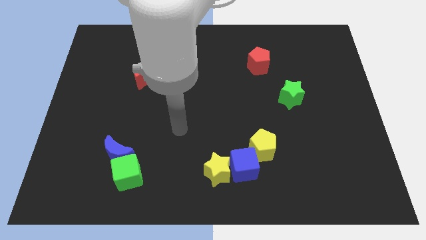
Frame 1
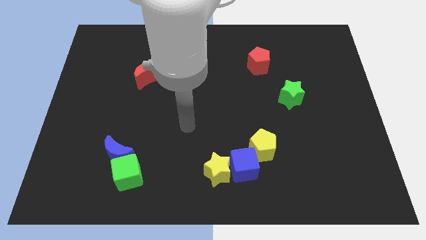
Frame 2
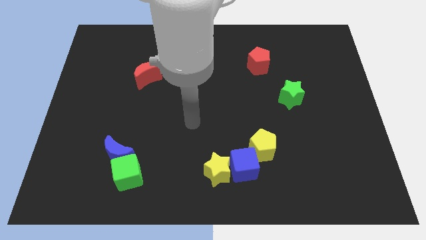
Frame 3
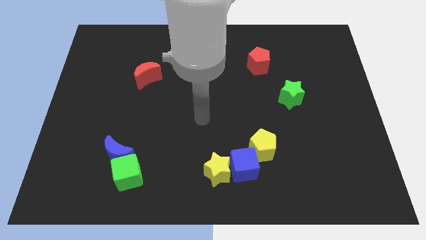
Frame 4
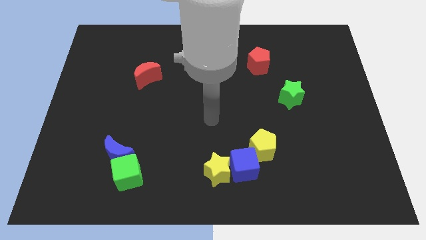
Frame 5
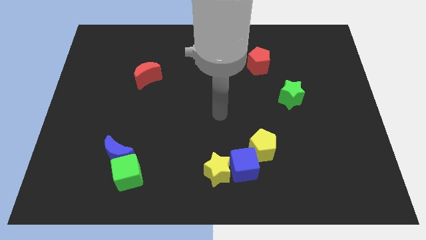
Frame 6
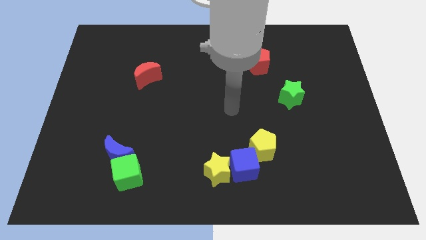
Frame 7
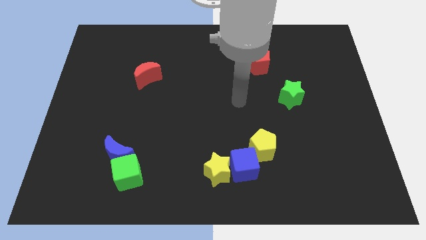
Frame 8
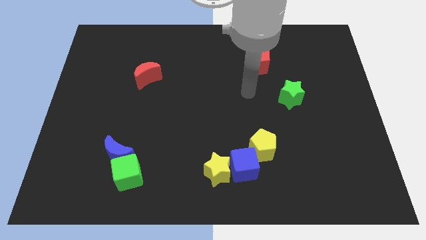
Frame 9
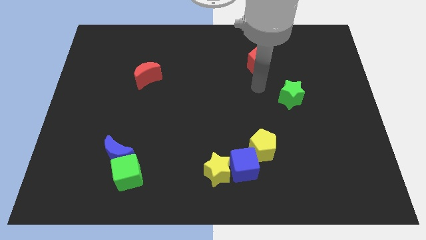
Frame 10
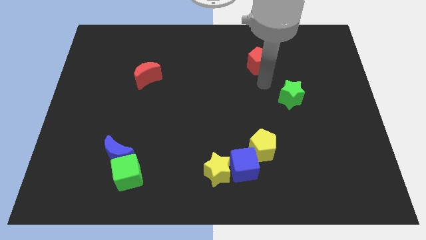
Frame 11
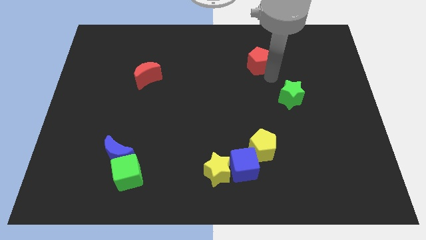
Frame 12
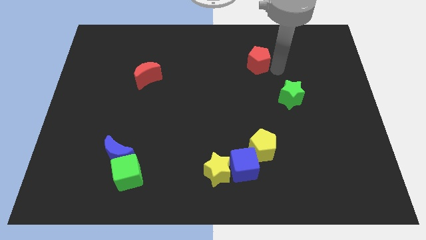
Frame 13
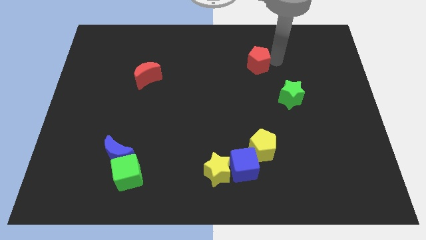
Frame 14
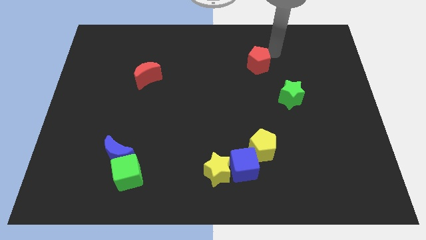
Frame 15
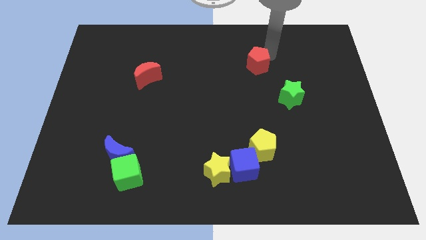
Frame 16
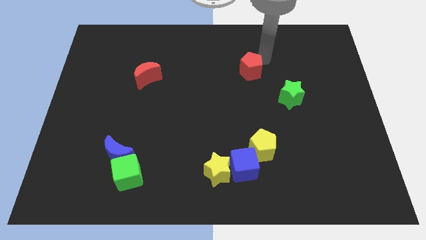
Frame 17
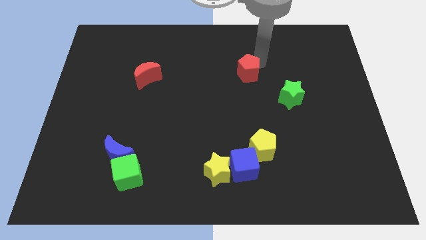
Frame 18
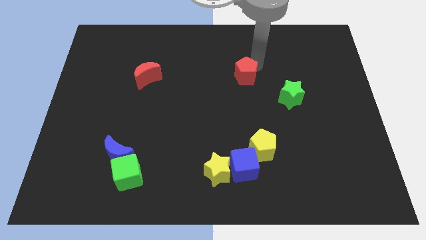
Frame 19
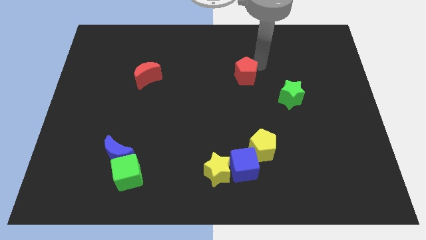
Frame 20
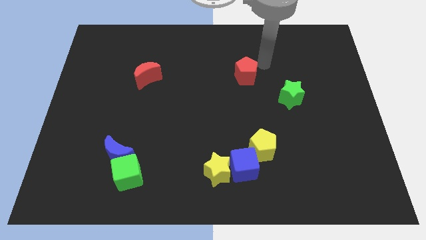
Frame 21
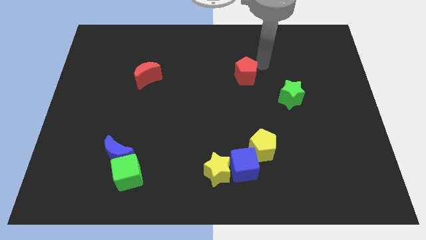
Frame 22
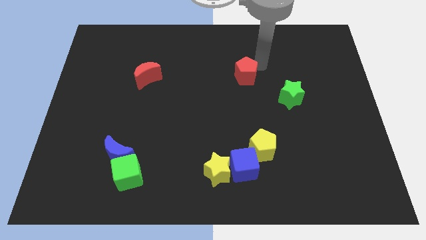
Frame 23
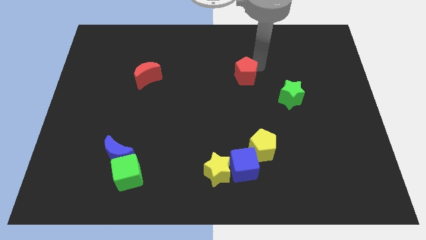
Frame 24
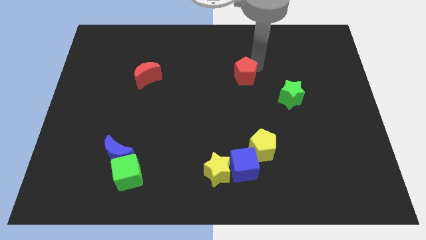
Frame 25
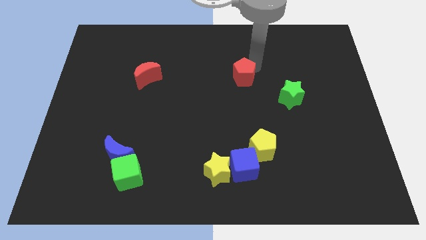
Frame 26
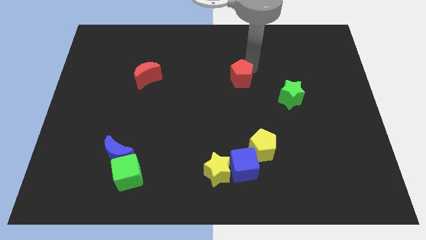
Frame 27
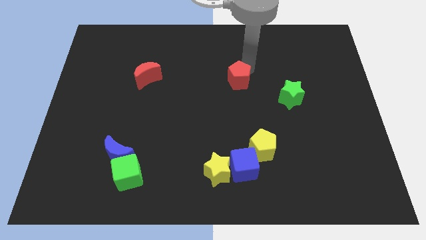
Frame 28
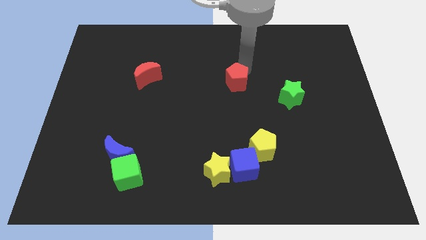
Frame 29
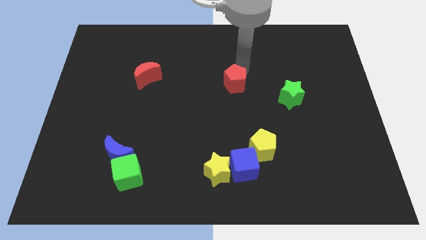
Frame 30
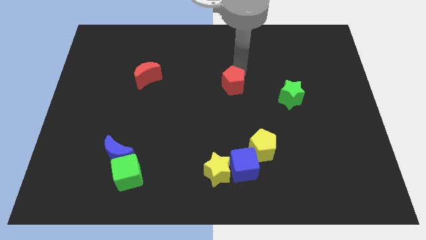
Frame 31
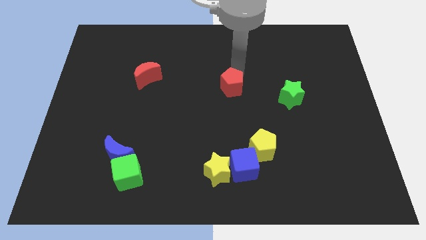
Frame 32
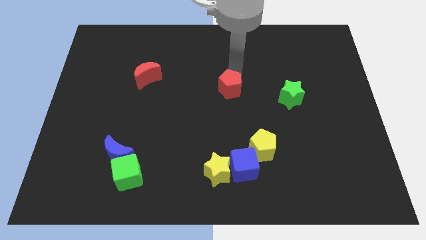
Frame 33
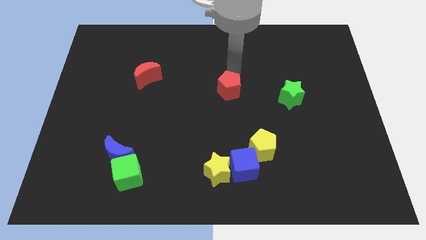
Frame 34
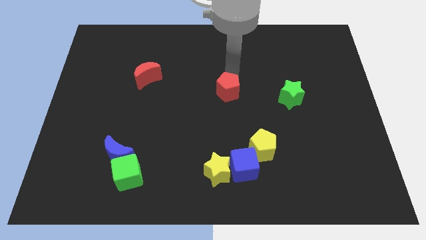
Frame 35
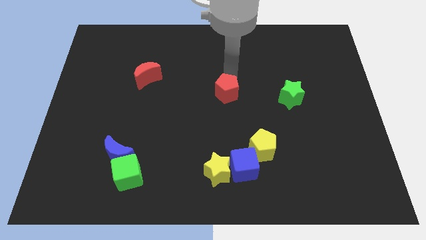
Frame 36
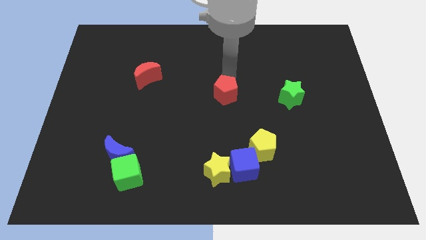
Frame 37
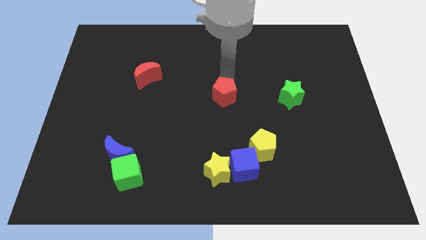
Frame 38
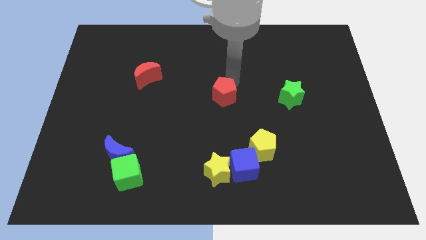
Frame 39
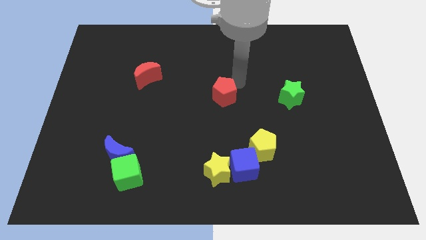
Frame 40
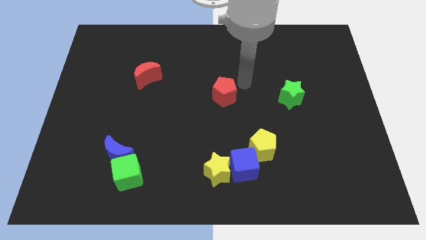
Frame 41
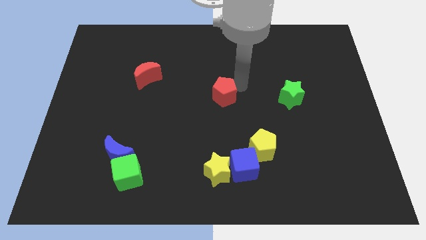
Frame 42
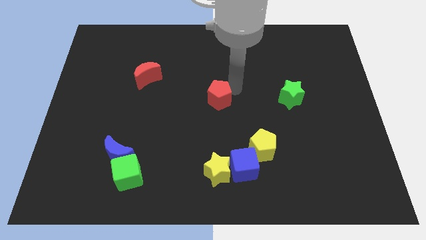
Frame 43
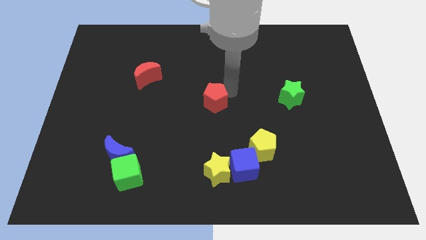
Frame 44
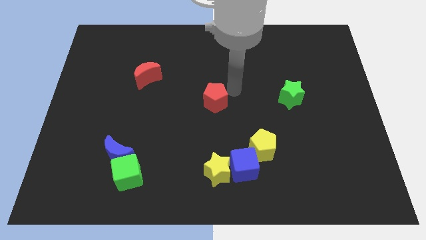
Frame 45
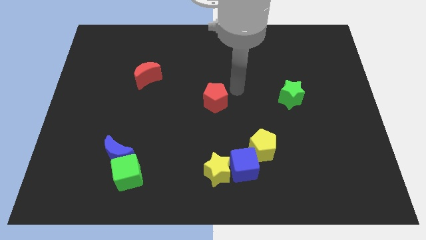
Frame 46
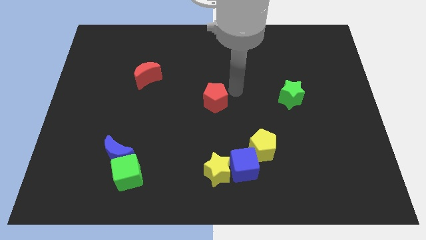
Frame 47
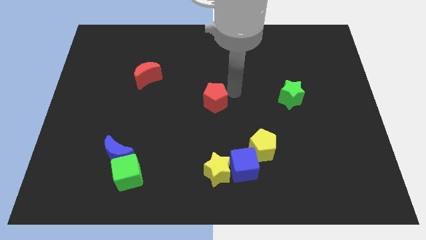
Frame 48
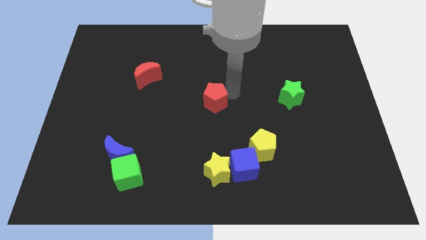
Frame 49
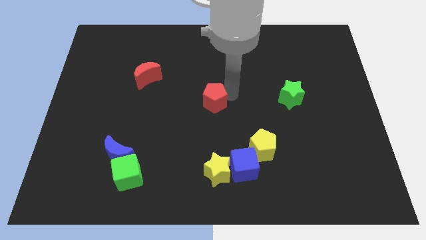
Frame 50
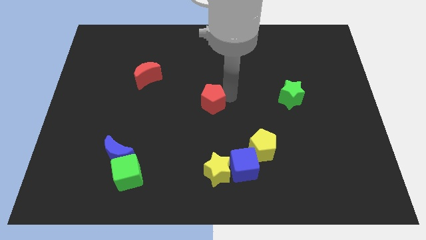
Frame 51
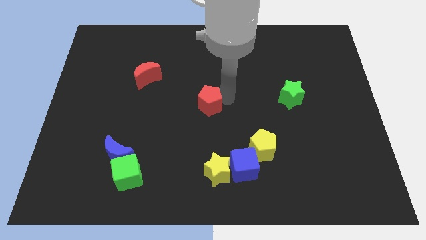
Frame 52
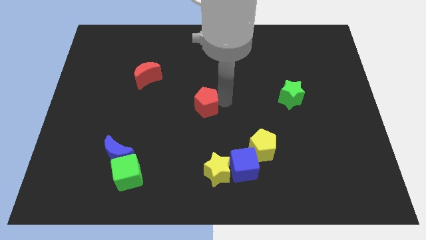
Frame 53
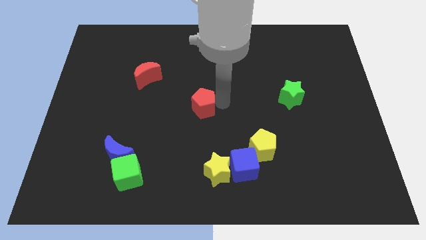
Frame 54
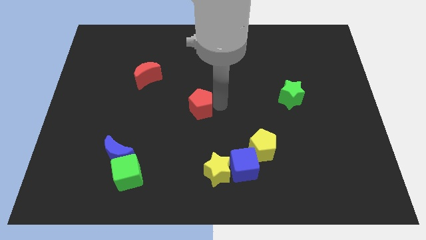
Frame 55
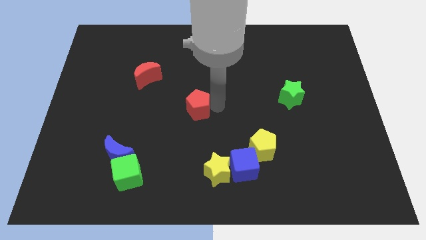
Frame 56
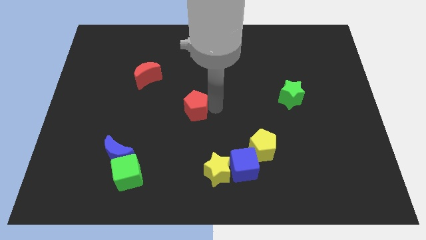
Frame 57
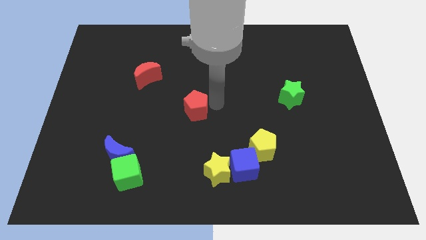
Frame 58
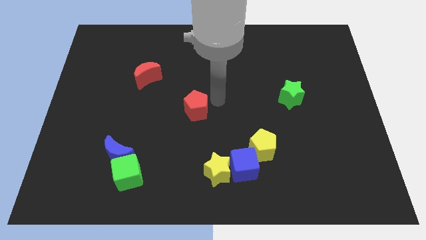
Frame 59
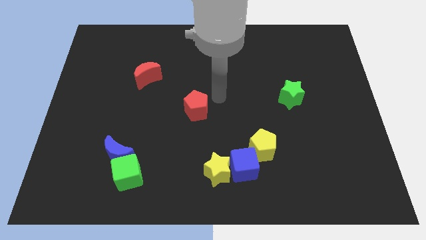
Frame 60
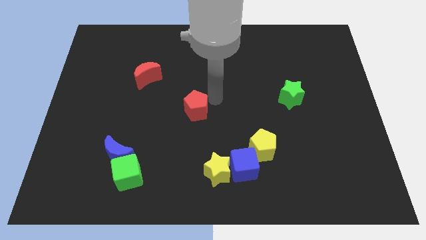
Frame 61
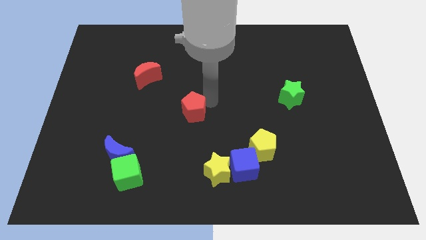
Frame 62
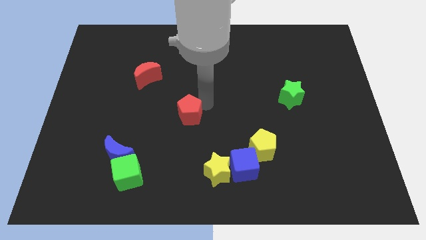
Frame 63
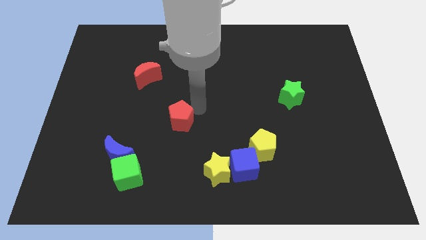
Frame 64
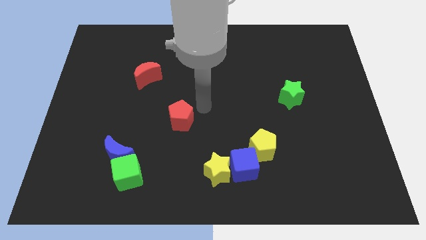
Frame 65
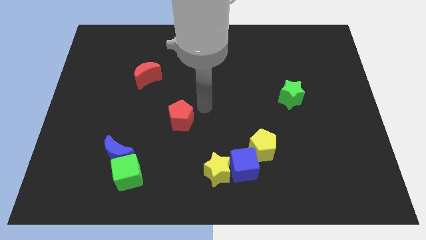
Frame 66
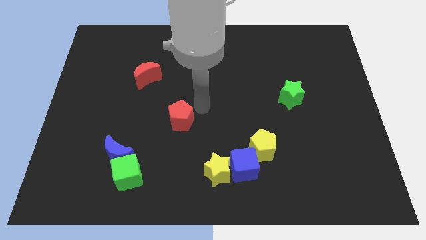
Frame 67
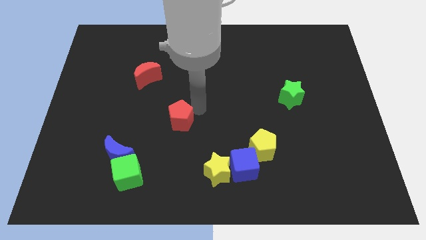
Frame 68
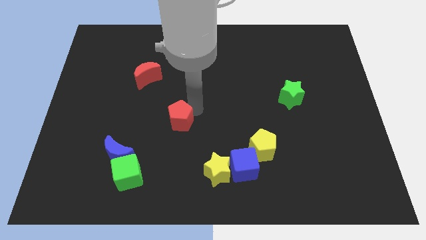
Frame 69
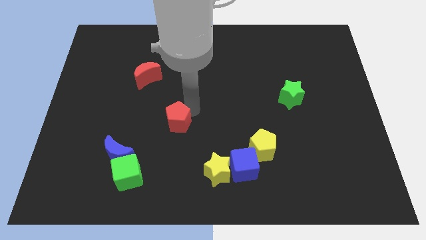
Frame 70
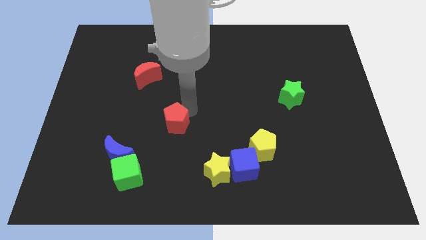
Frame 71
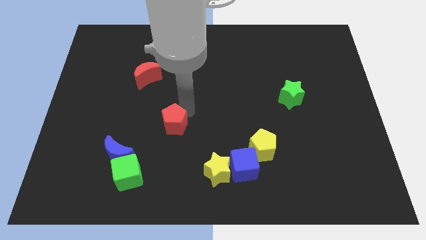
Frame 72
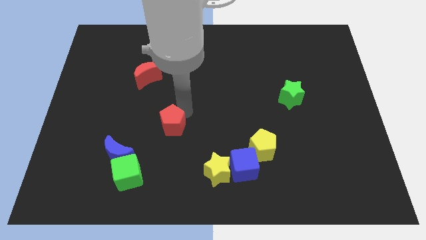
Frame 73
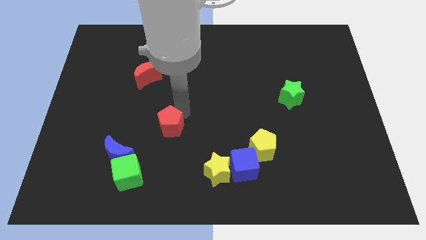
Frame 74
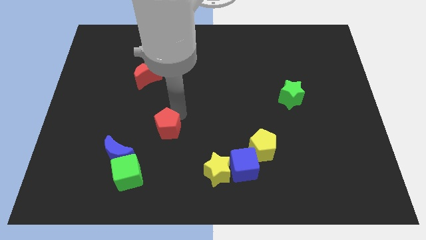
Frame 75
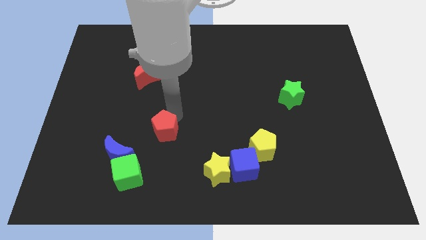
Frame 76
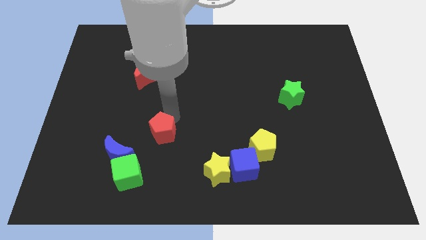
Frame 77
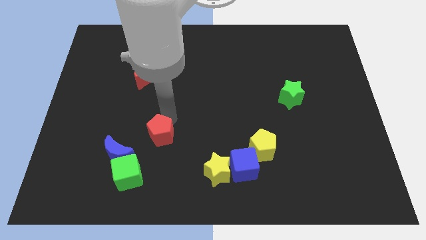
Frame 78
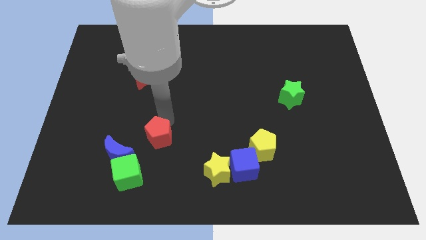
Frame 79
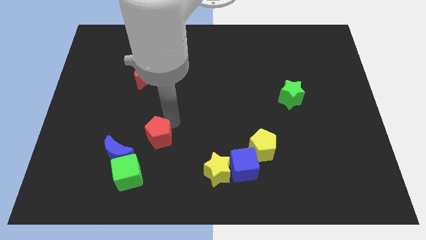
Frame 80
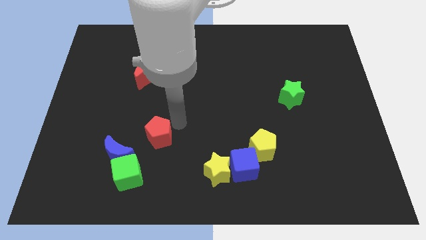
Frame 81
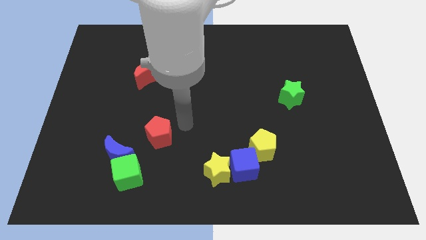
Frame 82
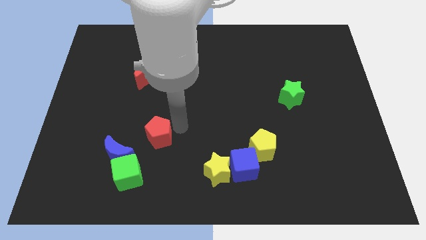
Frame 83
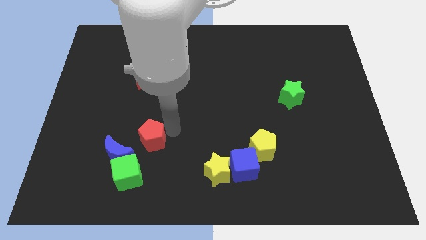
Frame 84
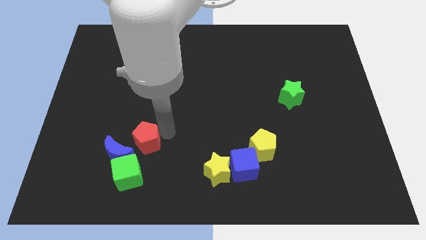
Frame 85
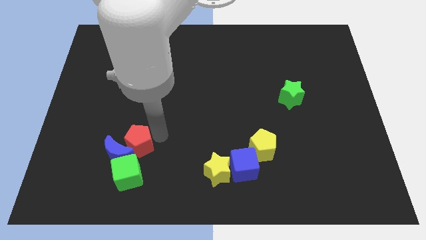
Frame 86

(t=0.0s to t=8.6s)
push the red pentagon towards the blue moon
